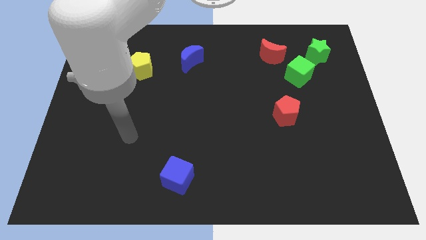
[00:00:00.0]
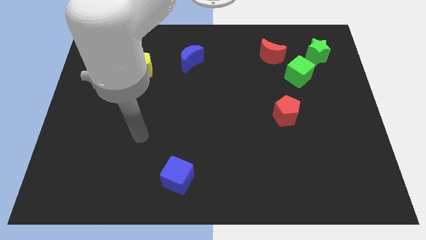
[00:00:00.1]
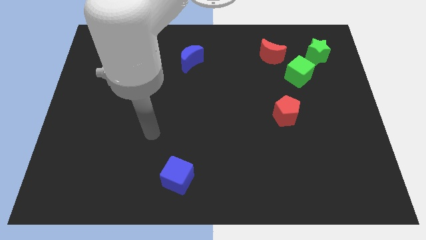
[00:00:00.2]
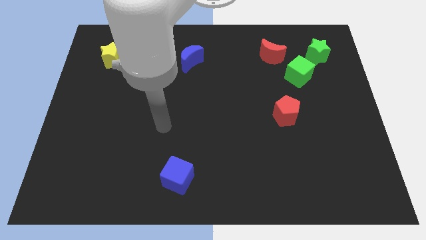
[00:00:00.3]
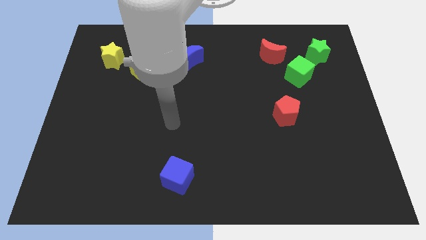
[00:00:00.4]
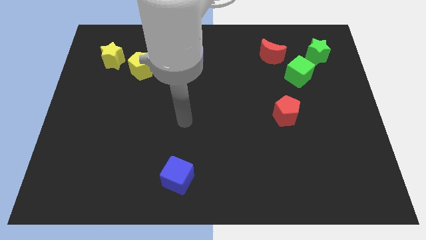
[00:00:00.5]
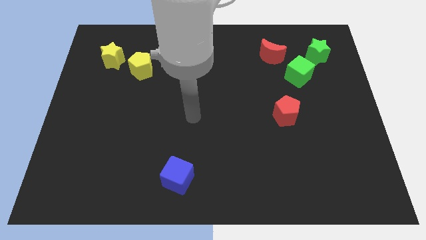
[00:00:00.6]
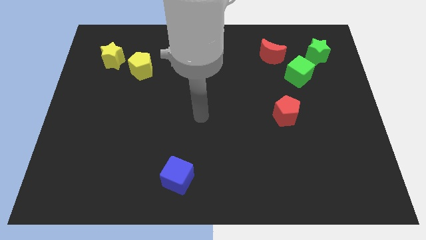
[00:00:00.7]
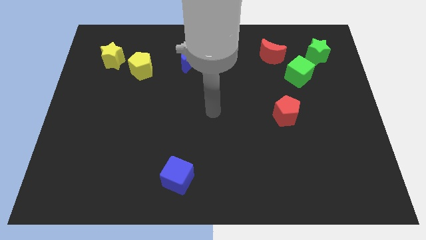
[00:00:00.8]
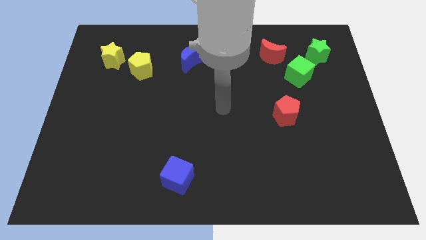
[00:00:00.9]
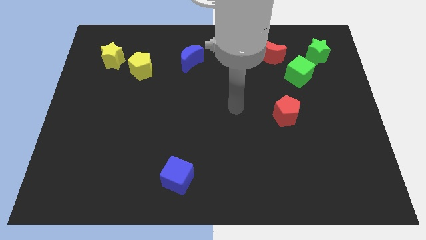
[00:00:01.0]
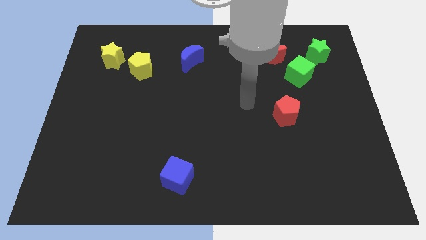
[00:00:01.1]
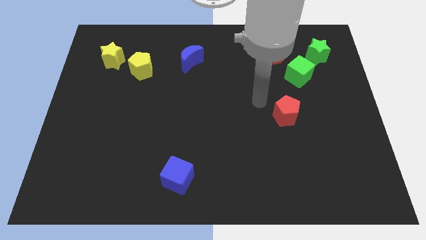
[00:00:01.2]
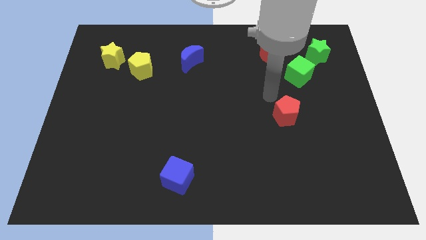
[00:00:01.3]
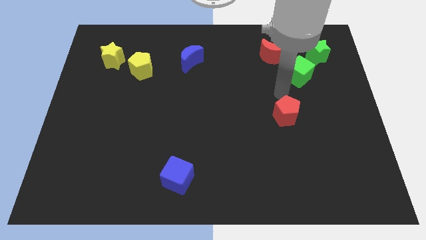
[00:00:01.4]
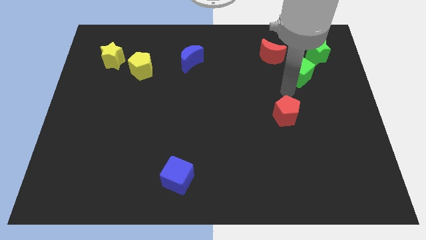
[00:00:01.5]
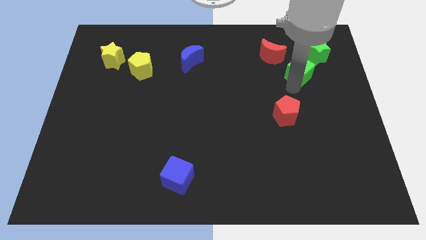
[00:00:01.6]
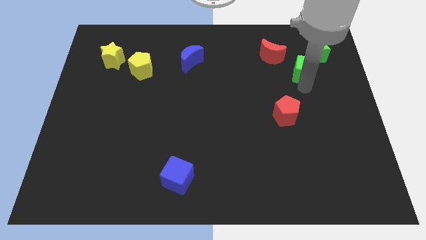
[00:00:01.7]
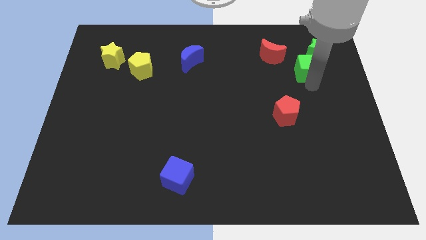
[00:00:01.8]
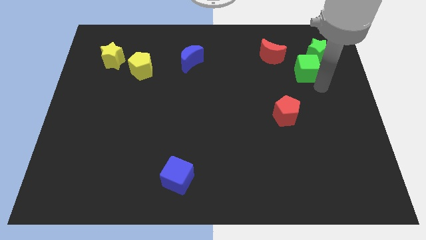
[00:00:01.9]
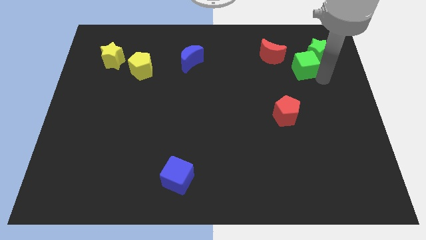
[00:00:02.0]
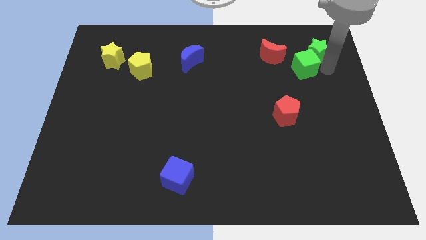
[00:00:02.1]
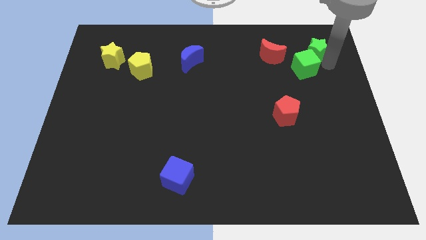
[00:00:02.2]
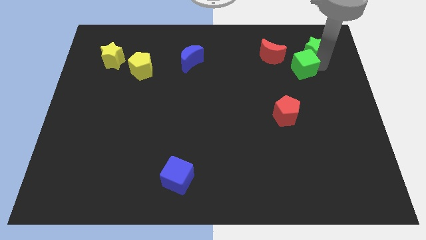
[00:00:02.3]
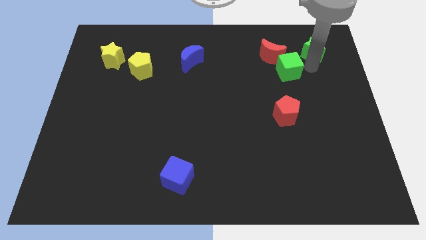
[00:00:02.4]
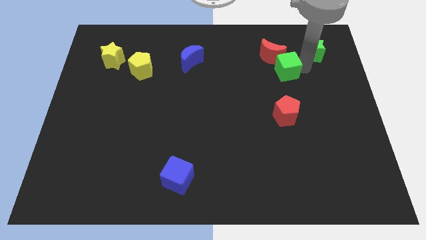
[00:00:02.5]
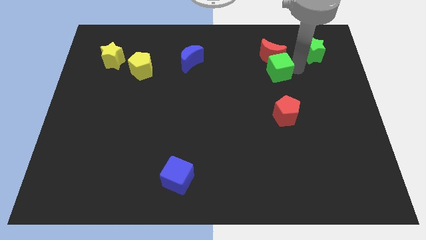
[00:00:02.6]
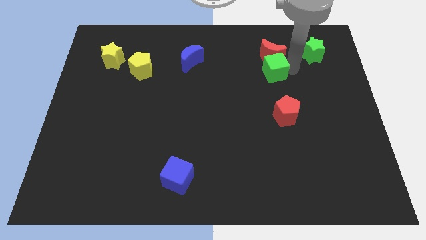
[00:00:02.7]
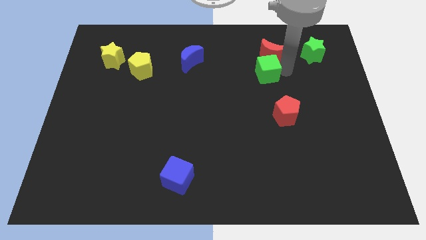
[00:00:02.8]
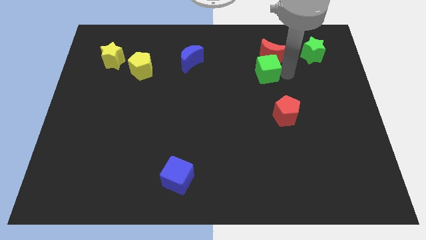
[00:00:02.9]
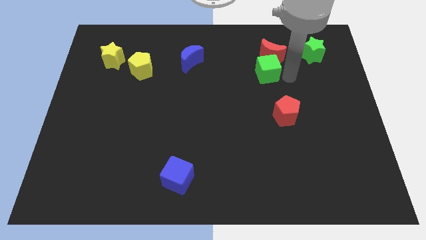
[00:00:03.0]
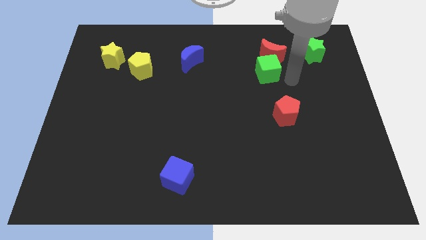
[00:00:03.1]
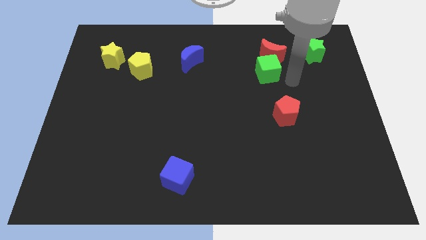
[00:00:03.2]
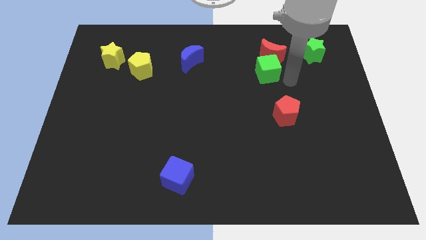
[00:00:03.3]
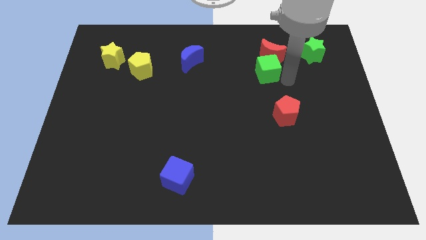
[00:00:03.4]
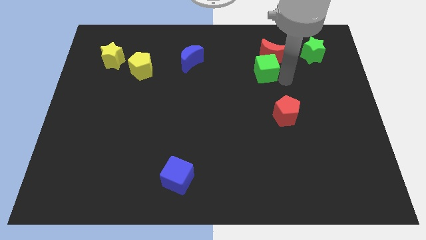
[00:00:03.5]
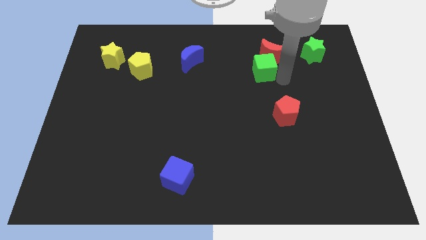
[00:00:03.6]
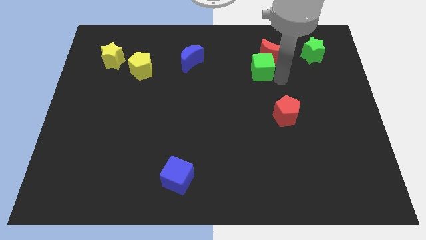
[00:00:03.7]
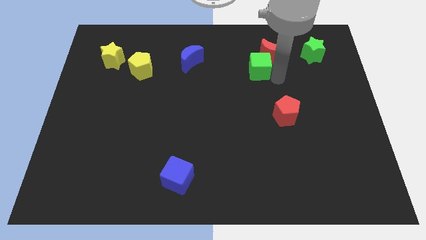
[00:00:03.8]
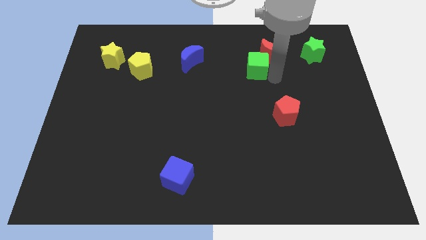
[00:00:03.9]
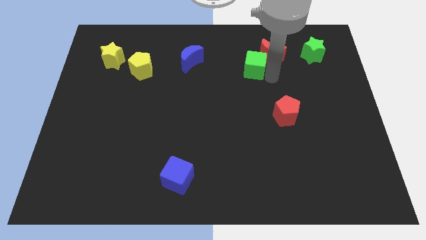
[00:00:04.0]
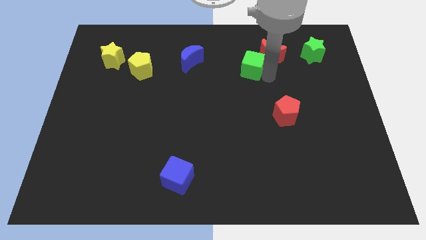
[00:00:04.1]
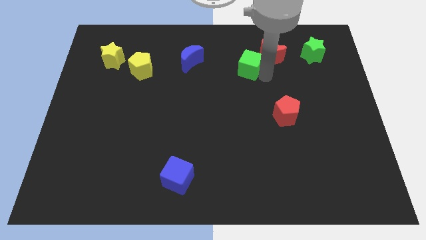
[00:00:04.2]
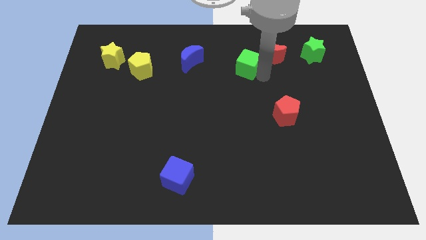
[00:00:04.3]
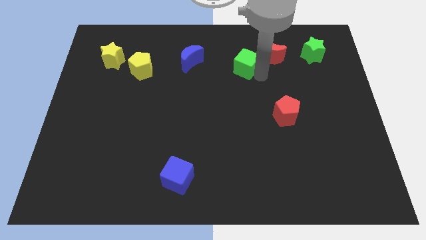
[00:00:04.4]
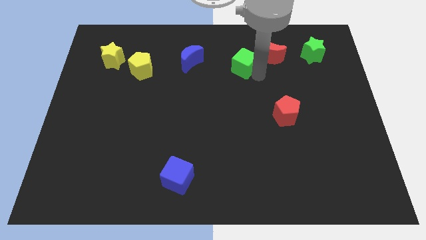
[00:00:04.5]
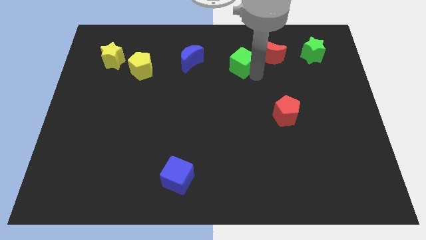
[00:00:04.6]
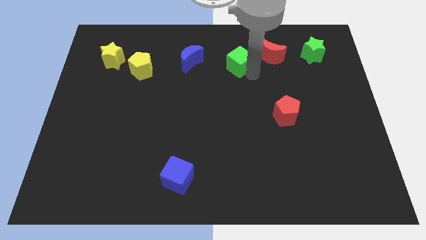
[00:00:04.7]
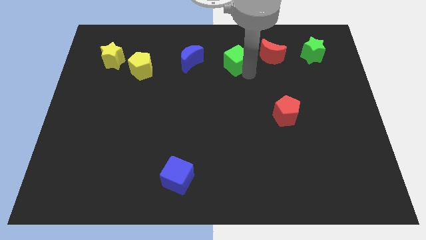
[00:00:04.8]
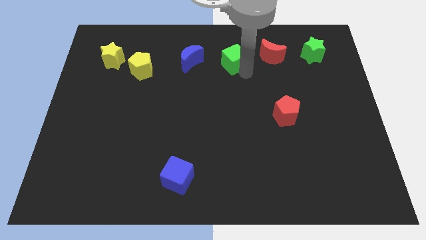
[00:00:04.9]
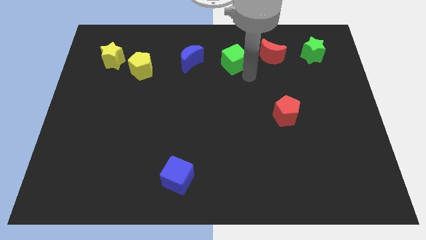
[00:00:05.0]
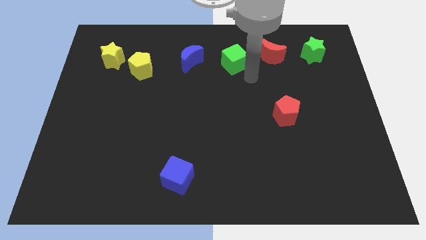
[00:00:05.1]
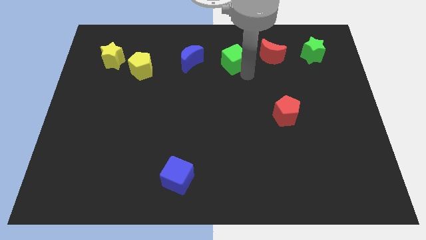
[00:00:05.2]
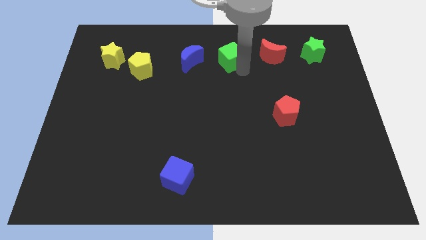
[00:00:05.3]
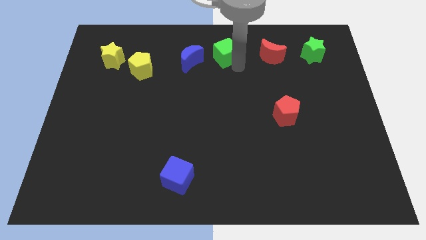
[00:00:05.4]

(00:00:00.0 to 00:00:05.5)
move the green cube to the top side

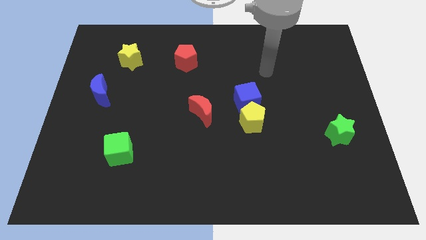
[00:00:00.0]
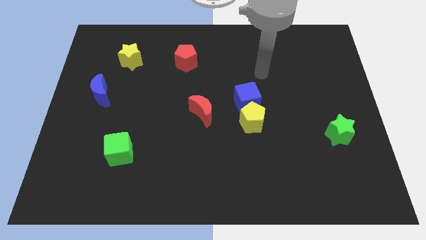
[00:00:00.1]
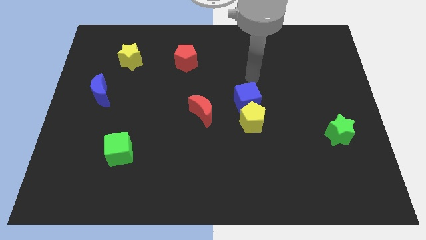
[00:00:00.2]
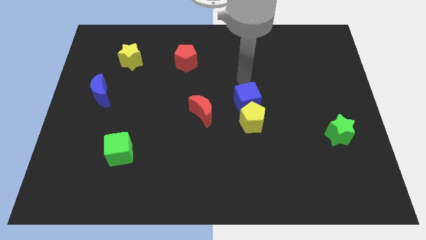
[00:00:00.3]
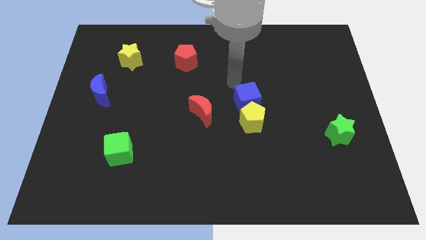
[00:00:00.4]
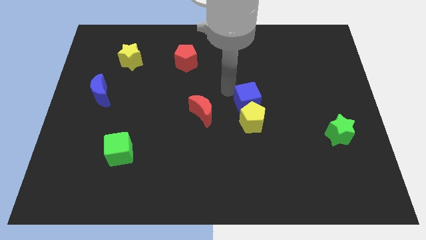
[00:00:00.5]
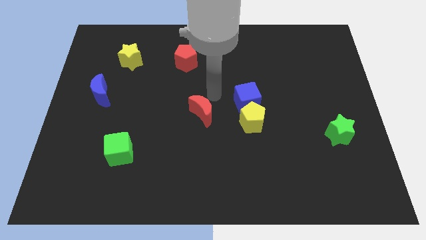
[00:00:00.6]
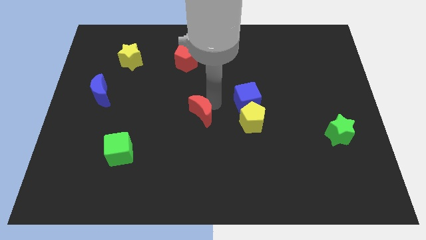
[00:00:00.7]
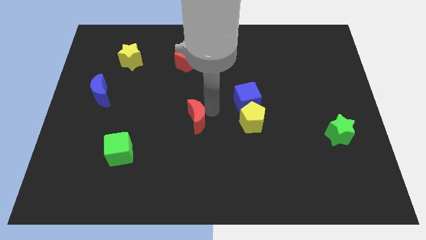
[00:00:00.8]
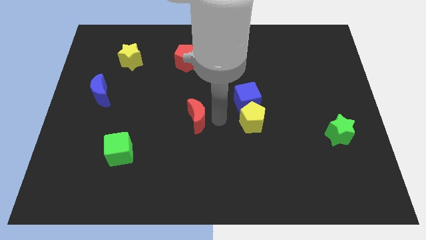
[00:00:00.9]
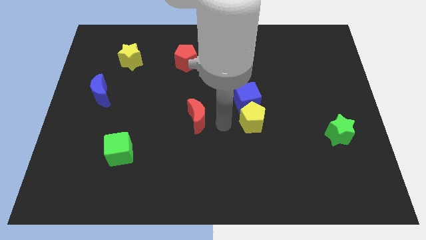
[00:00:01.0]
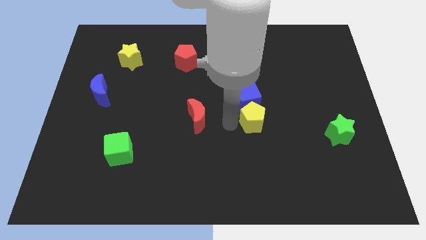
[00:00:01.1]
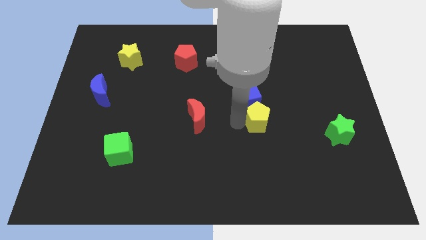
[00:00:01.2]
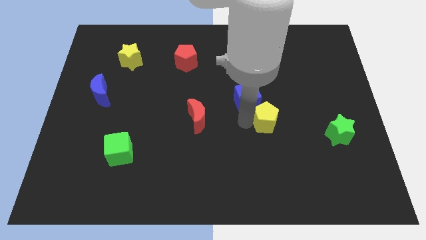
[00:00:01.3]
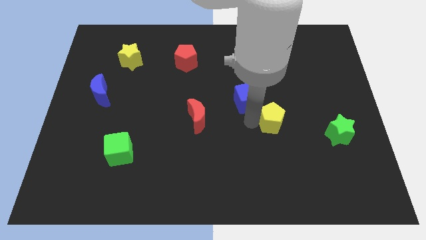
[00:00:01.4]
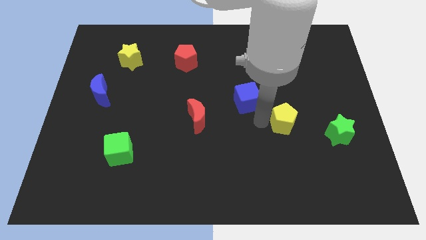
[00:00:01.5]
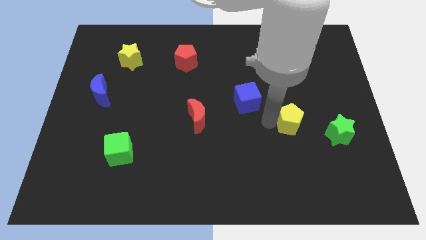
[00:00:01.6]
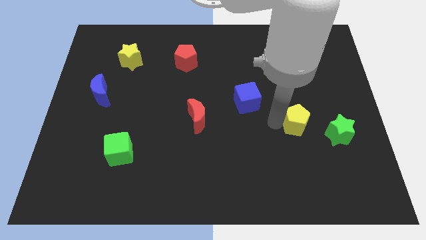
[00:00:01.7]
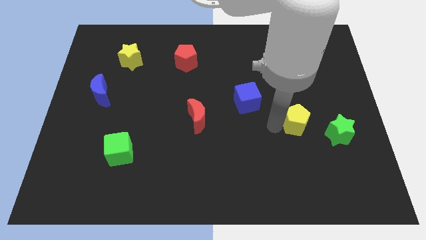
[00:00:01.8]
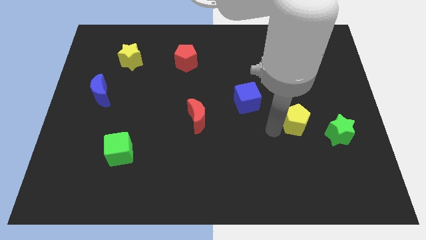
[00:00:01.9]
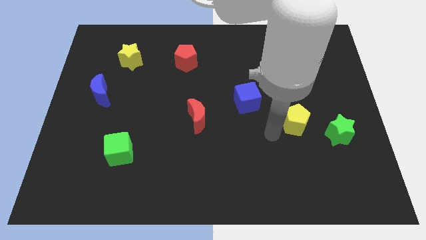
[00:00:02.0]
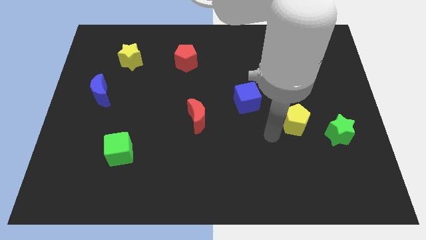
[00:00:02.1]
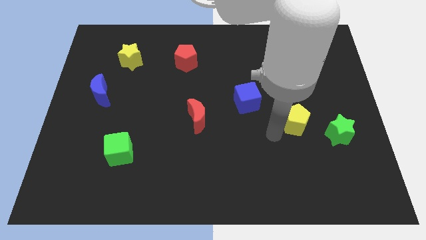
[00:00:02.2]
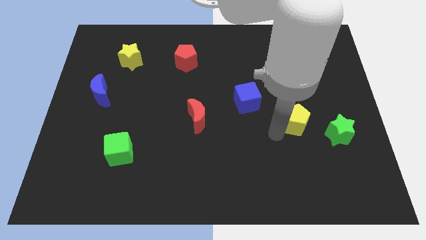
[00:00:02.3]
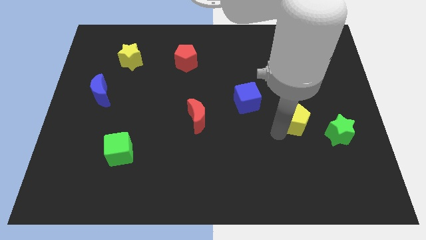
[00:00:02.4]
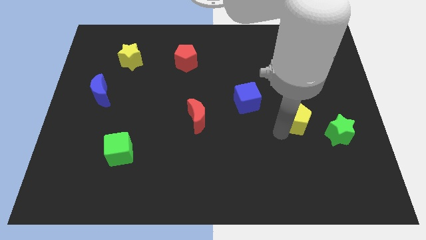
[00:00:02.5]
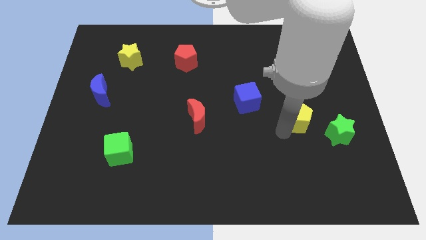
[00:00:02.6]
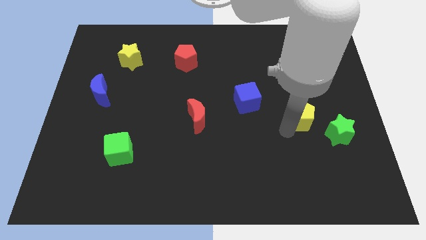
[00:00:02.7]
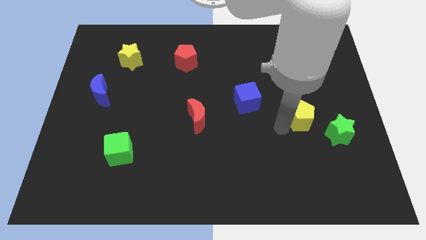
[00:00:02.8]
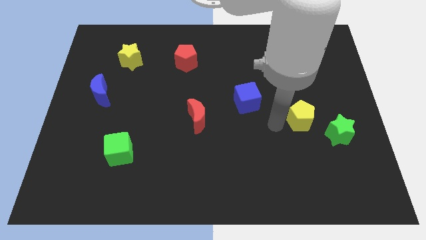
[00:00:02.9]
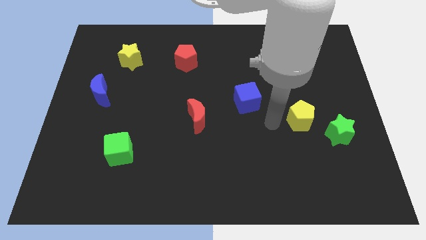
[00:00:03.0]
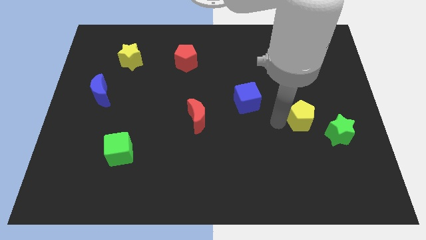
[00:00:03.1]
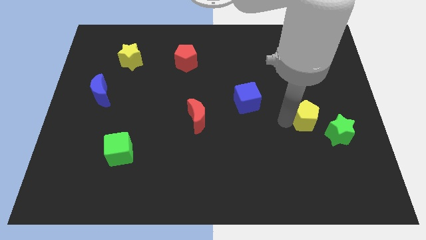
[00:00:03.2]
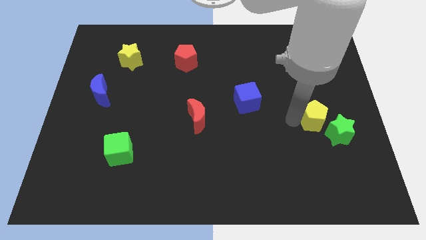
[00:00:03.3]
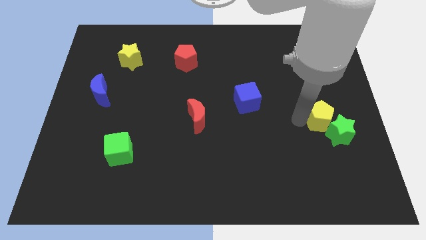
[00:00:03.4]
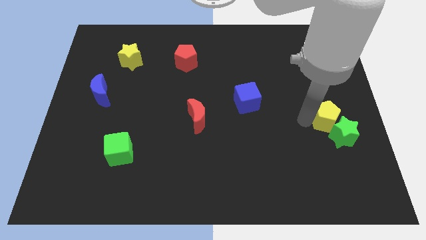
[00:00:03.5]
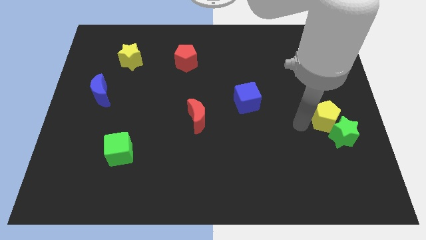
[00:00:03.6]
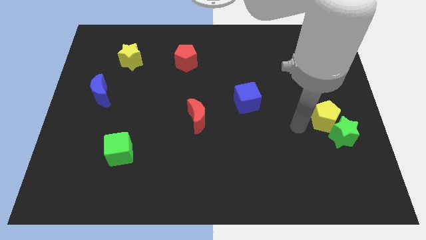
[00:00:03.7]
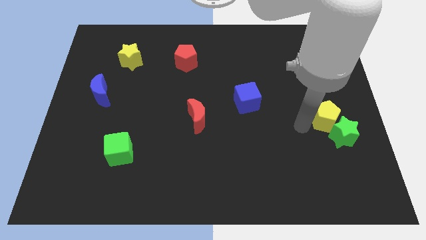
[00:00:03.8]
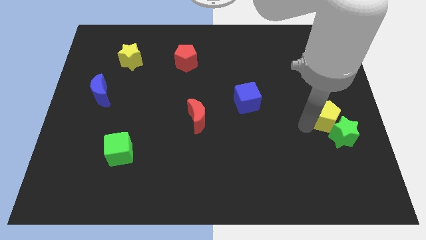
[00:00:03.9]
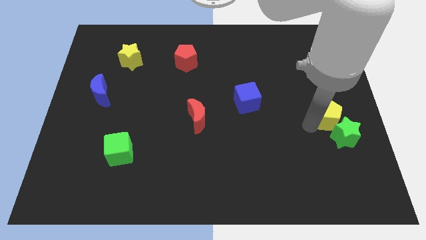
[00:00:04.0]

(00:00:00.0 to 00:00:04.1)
push the yellow pentagon to the right side
